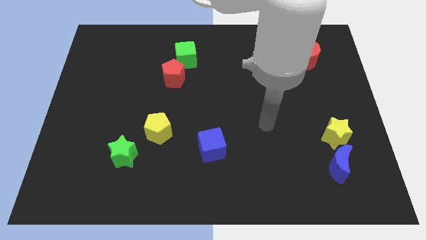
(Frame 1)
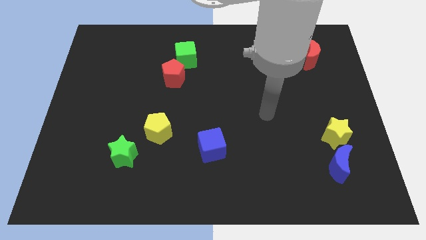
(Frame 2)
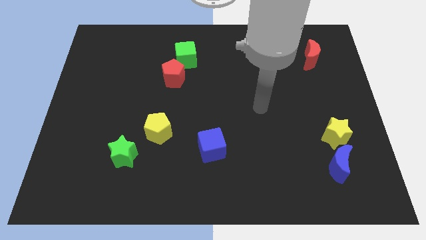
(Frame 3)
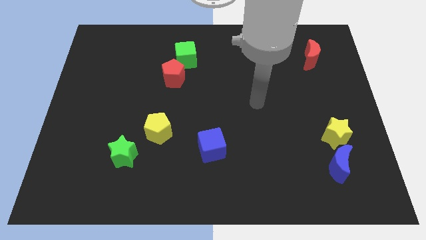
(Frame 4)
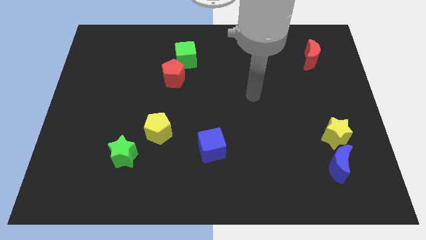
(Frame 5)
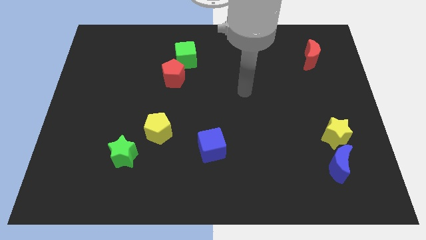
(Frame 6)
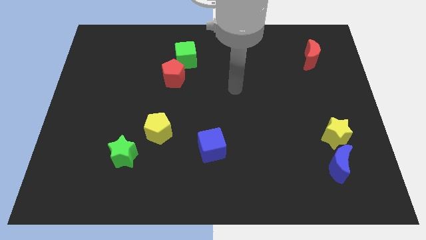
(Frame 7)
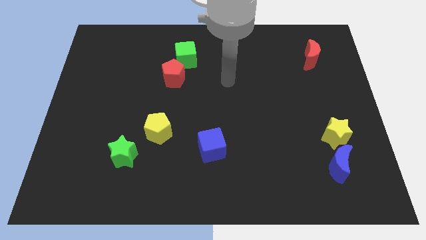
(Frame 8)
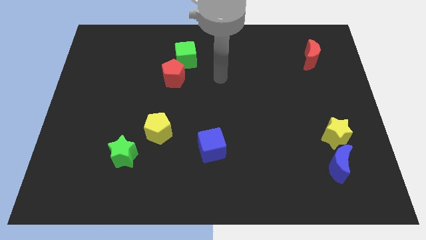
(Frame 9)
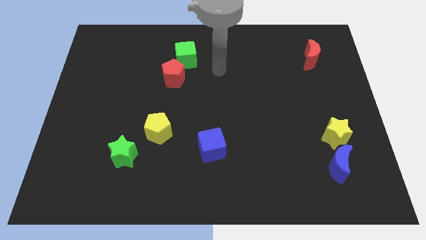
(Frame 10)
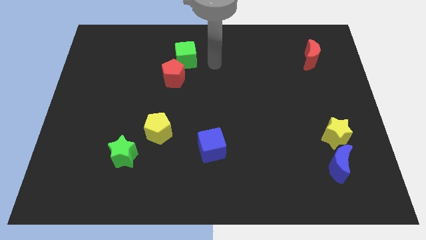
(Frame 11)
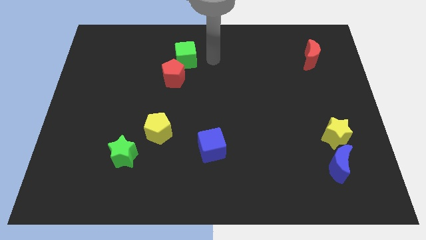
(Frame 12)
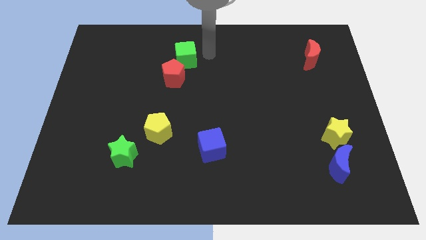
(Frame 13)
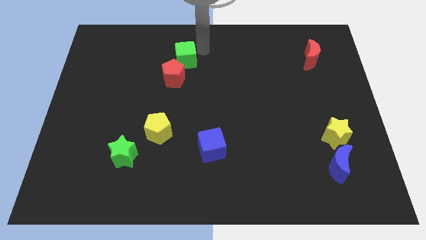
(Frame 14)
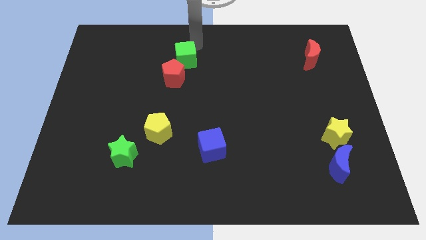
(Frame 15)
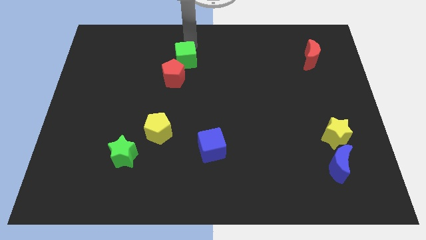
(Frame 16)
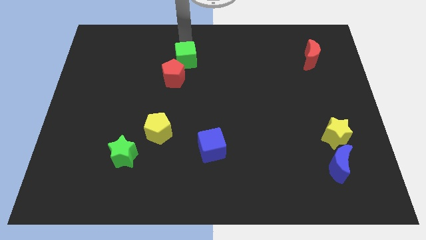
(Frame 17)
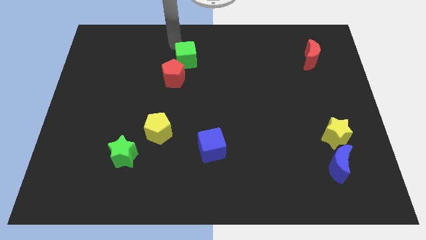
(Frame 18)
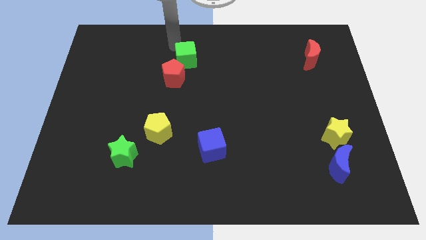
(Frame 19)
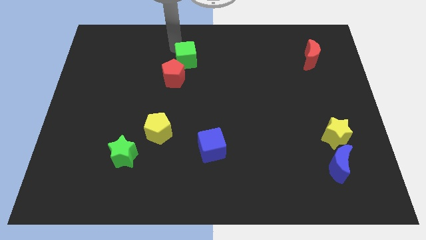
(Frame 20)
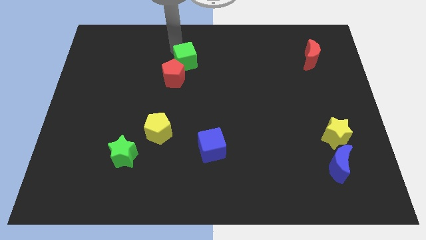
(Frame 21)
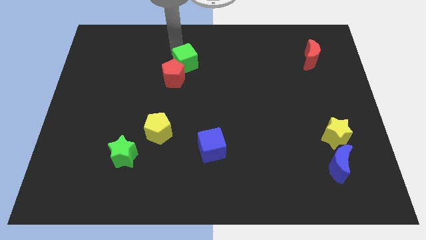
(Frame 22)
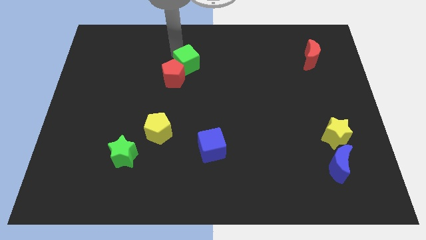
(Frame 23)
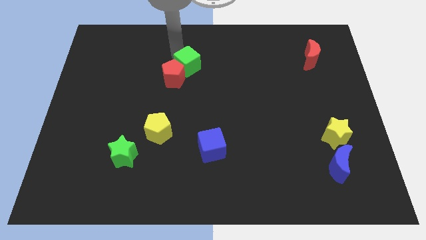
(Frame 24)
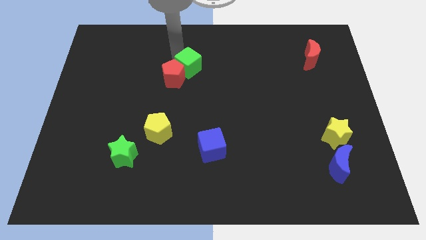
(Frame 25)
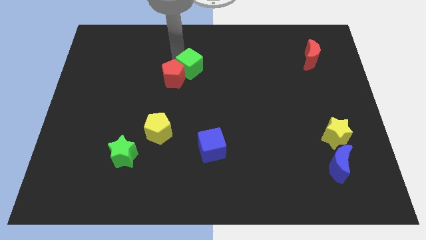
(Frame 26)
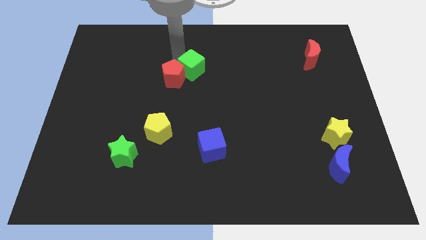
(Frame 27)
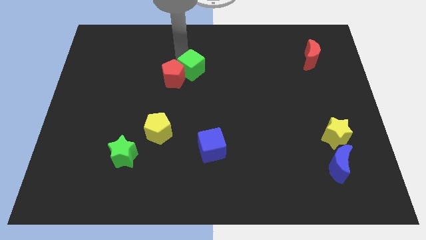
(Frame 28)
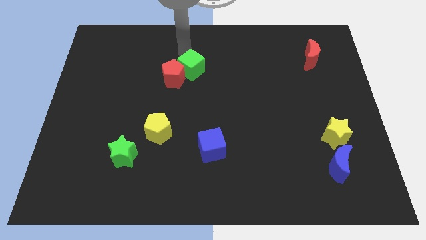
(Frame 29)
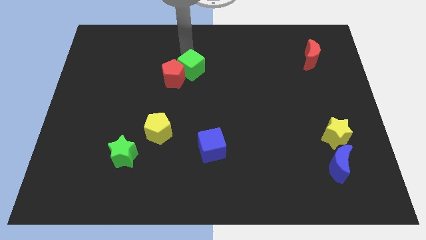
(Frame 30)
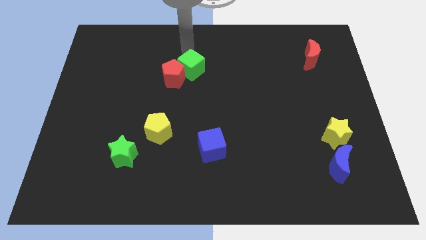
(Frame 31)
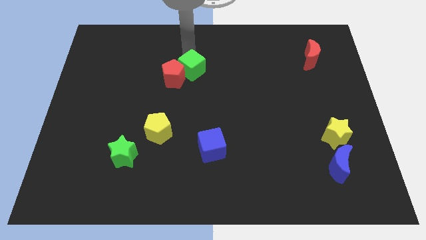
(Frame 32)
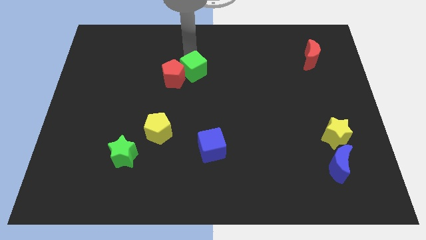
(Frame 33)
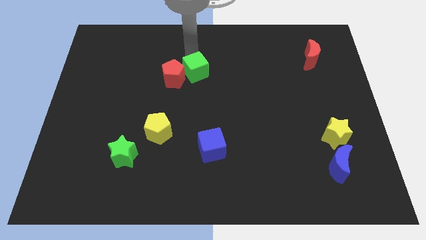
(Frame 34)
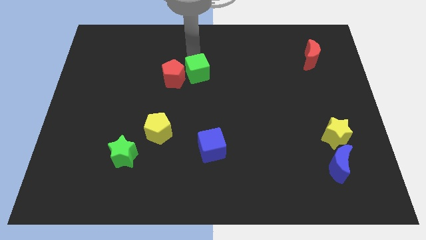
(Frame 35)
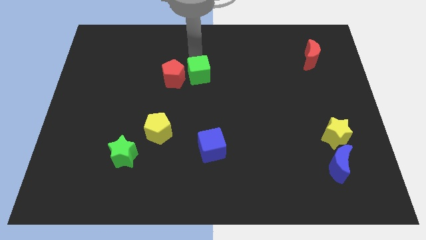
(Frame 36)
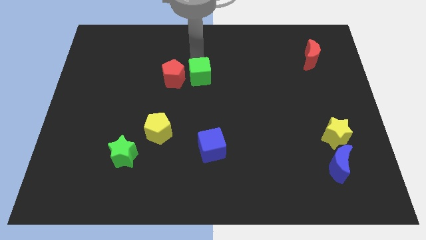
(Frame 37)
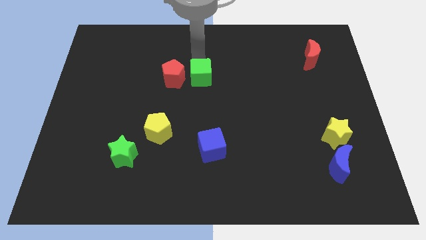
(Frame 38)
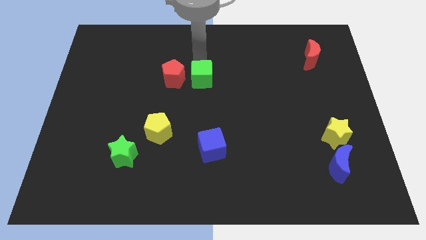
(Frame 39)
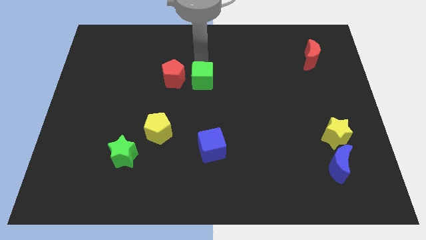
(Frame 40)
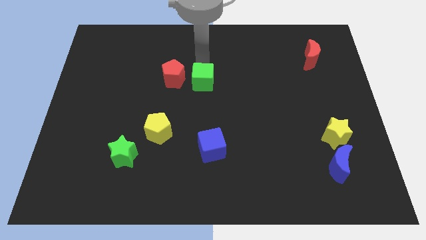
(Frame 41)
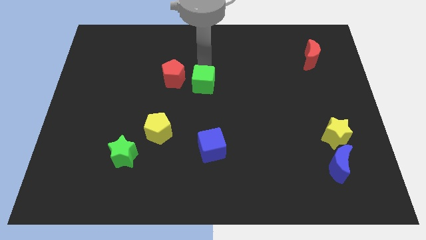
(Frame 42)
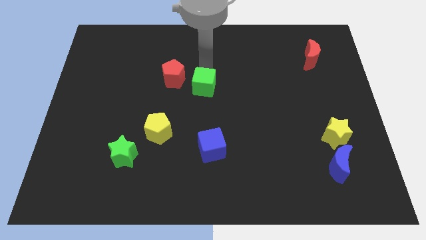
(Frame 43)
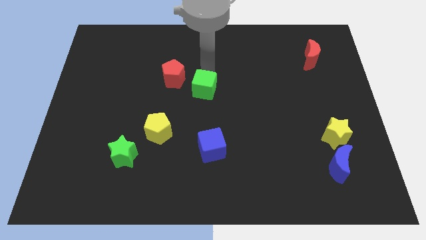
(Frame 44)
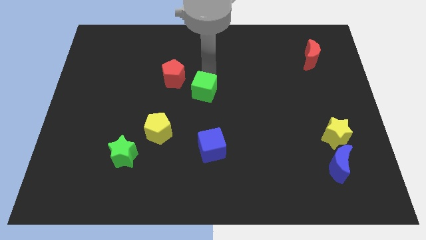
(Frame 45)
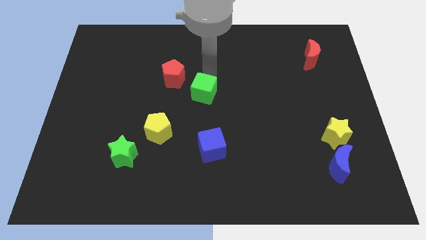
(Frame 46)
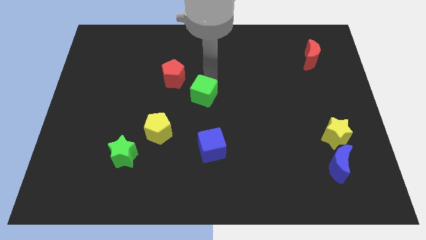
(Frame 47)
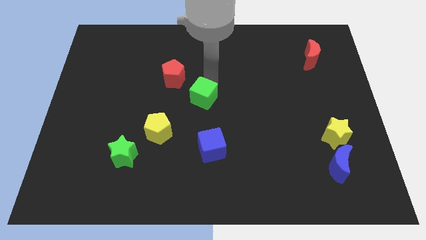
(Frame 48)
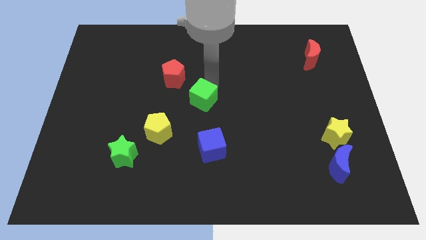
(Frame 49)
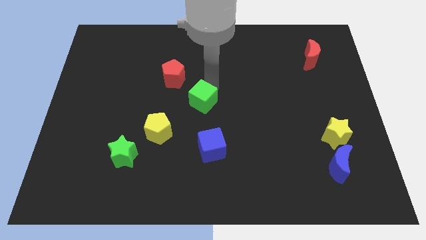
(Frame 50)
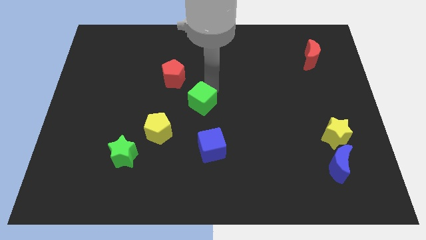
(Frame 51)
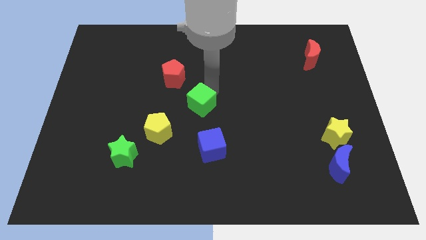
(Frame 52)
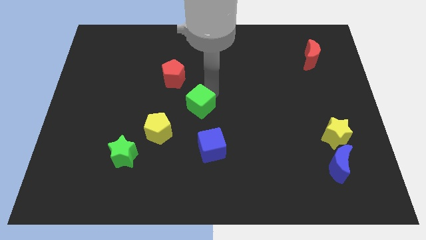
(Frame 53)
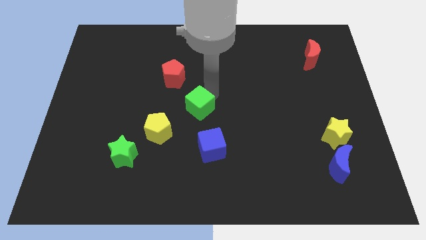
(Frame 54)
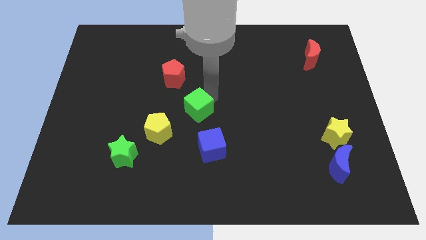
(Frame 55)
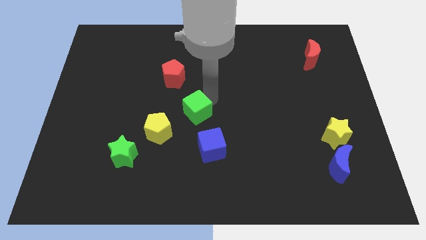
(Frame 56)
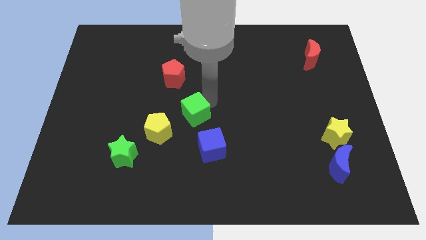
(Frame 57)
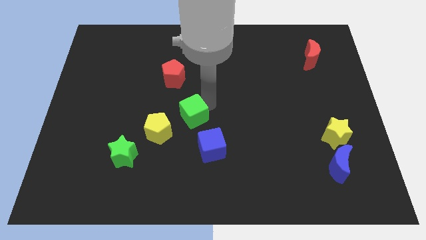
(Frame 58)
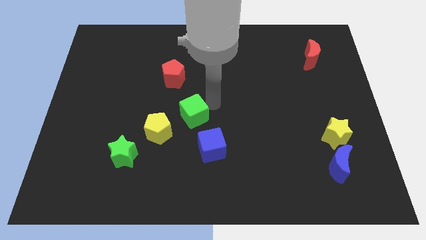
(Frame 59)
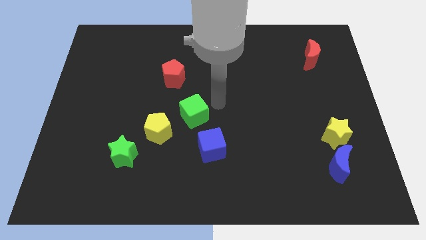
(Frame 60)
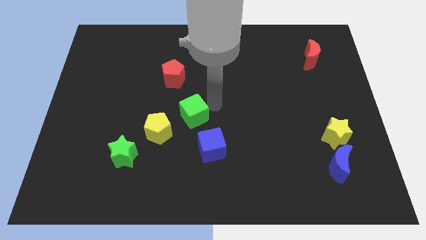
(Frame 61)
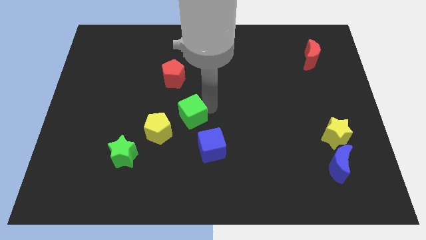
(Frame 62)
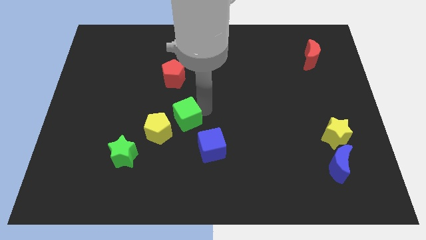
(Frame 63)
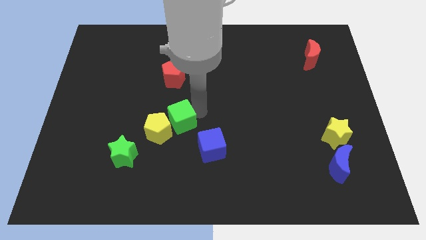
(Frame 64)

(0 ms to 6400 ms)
move the green cube close to the yellow pentagon

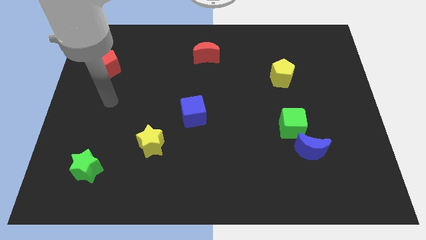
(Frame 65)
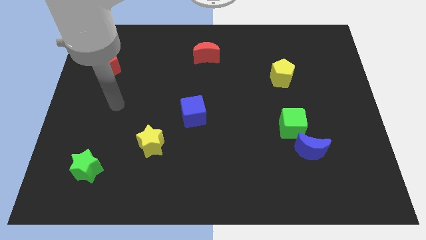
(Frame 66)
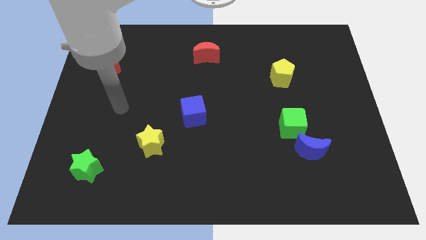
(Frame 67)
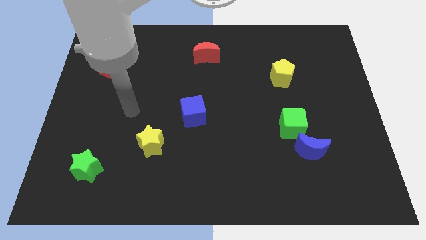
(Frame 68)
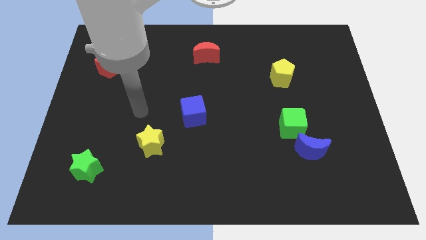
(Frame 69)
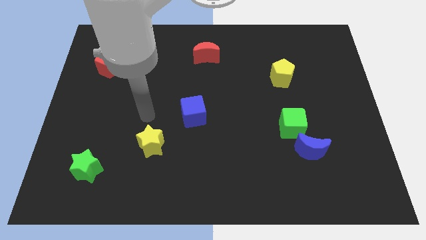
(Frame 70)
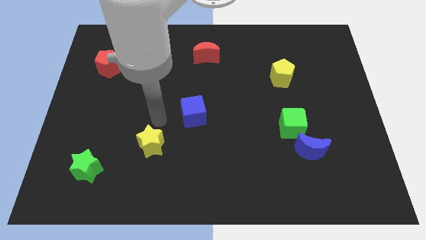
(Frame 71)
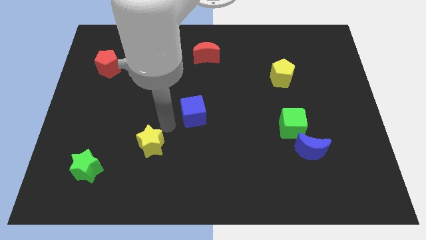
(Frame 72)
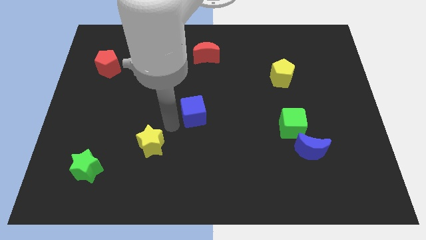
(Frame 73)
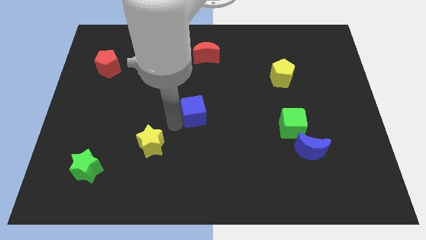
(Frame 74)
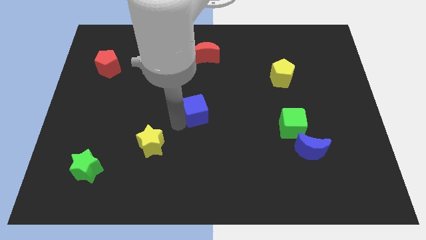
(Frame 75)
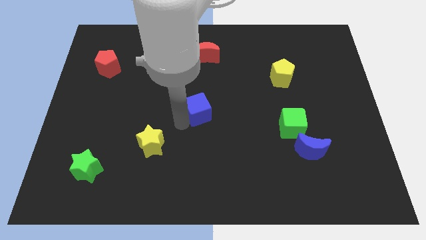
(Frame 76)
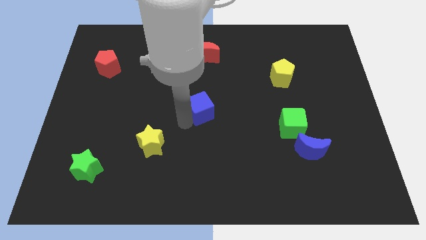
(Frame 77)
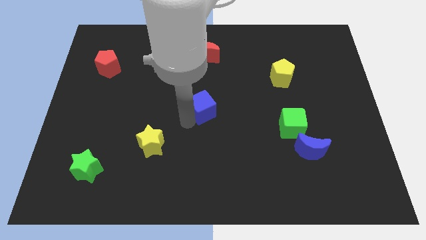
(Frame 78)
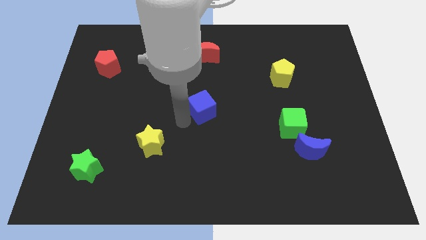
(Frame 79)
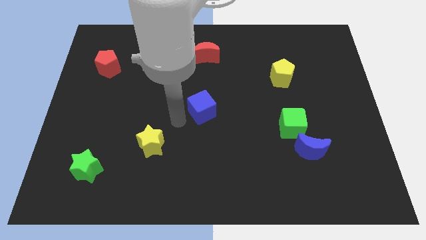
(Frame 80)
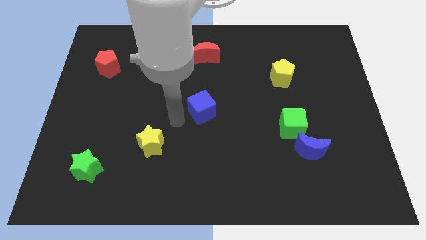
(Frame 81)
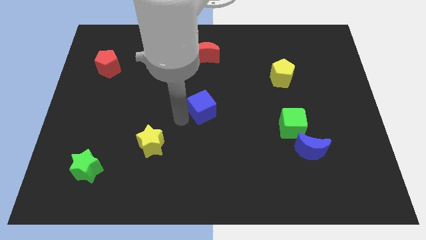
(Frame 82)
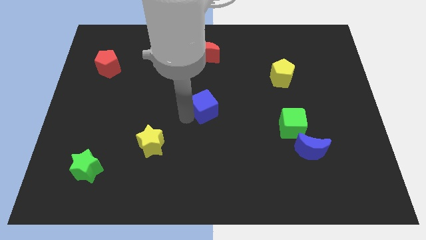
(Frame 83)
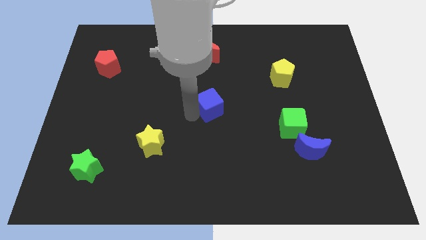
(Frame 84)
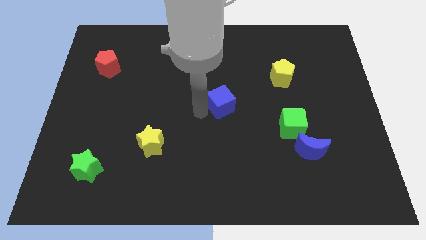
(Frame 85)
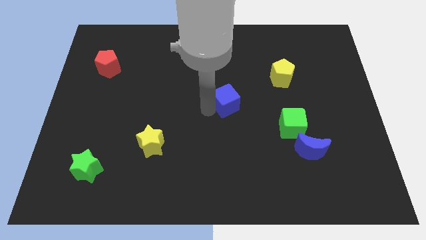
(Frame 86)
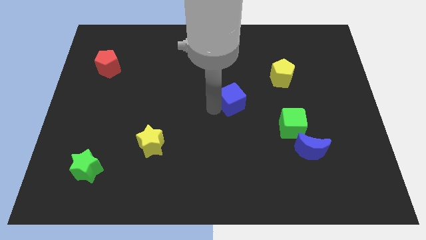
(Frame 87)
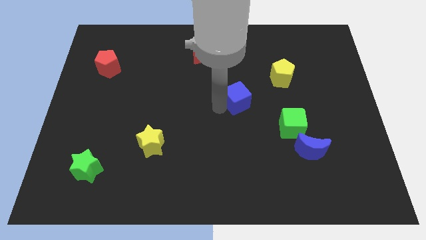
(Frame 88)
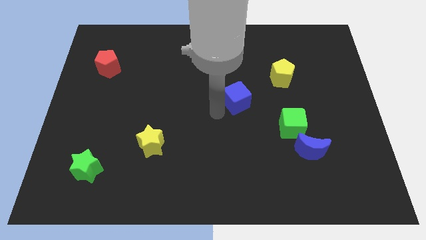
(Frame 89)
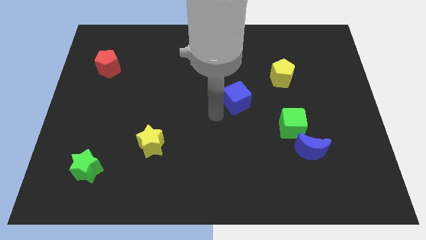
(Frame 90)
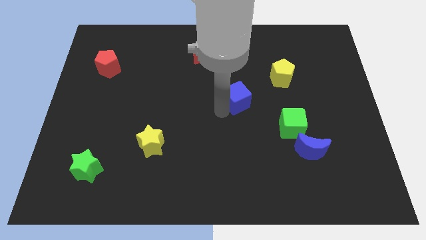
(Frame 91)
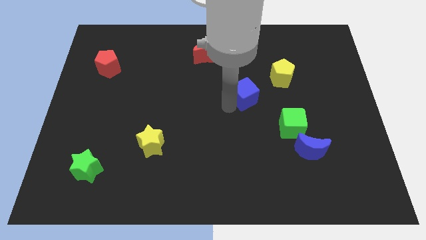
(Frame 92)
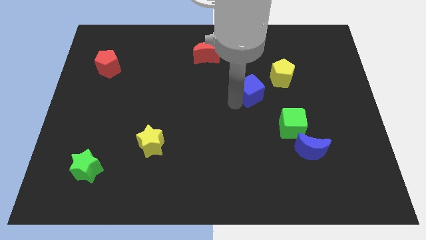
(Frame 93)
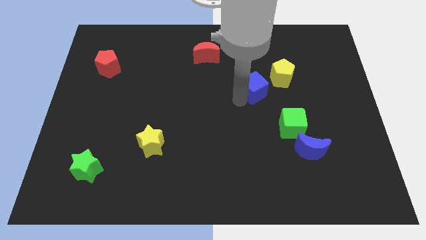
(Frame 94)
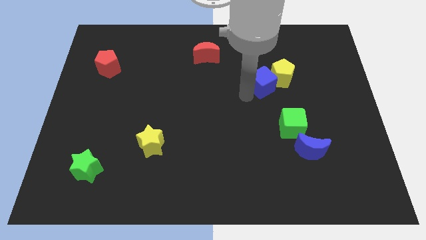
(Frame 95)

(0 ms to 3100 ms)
push the blue cube close to the yellow pentagon
